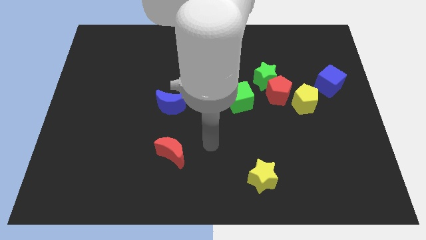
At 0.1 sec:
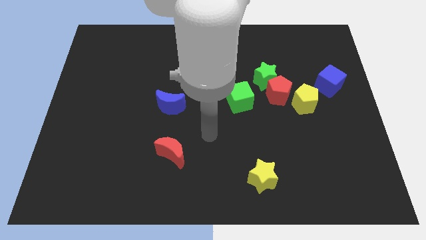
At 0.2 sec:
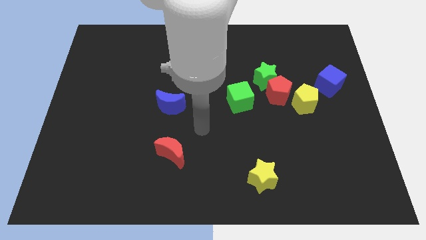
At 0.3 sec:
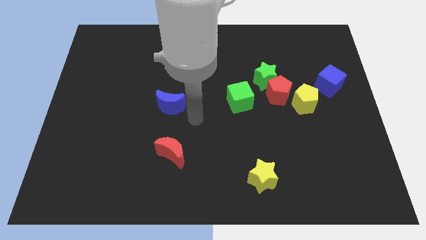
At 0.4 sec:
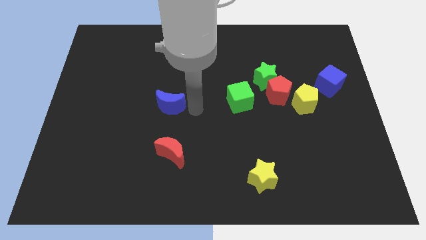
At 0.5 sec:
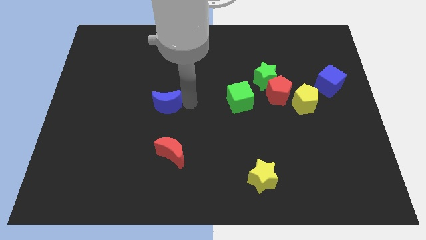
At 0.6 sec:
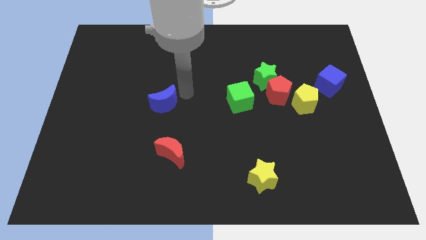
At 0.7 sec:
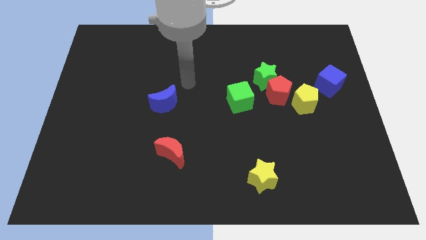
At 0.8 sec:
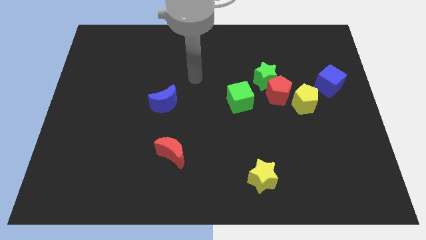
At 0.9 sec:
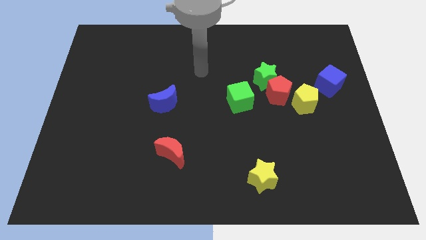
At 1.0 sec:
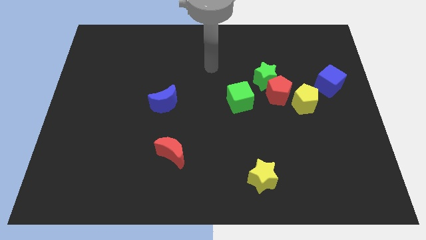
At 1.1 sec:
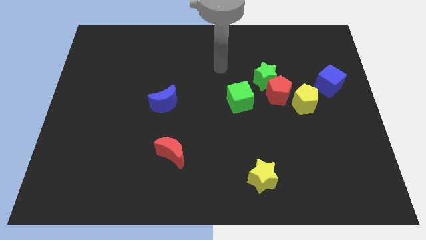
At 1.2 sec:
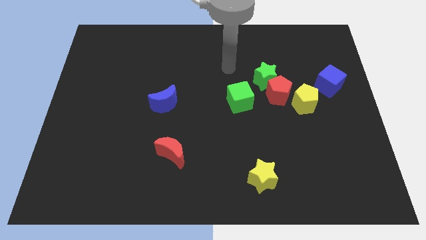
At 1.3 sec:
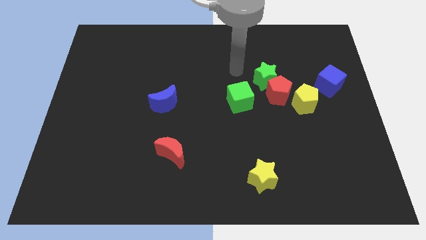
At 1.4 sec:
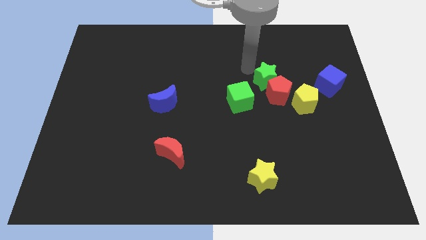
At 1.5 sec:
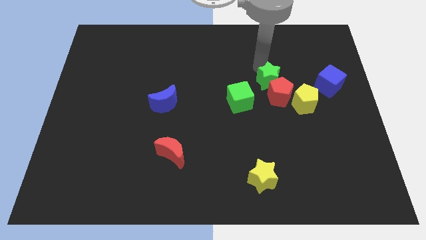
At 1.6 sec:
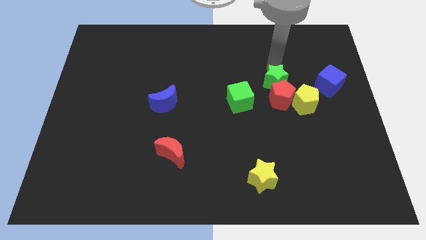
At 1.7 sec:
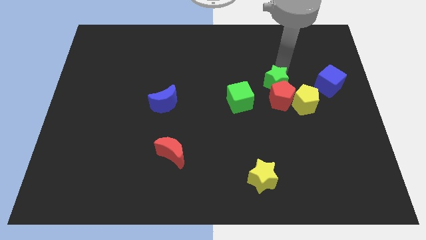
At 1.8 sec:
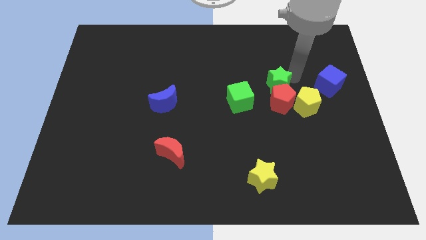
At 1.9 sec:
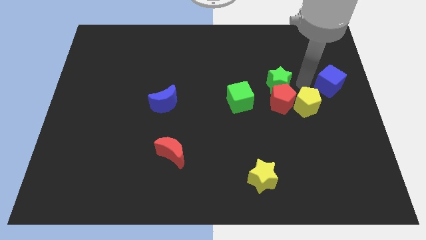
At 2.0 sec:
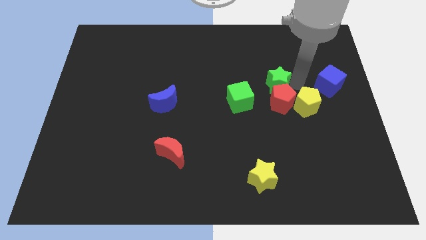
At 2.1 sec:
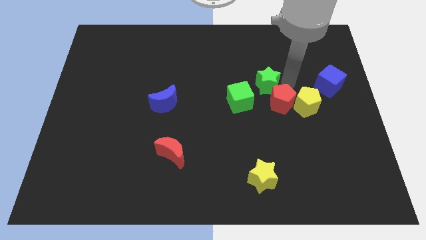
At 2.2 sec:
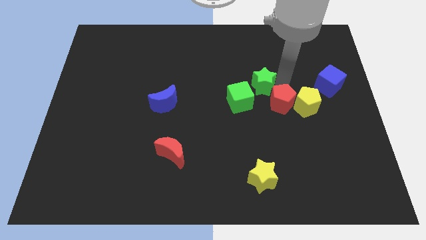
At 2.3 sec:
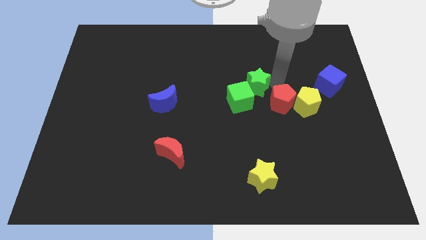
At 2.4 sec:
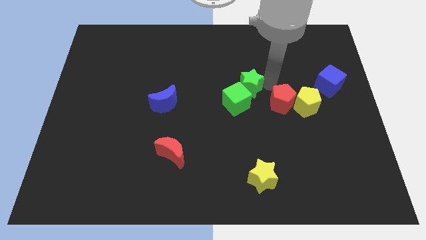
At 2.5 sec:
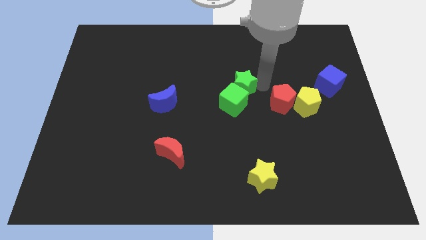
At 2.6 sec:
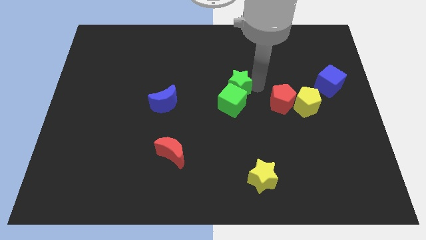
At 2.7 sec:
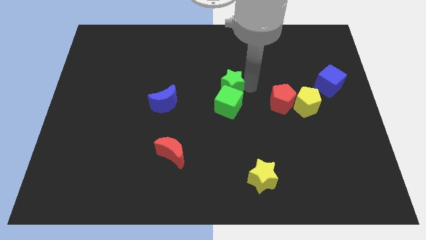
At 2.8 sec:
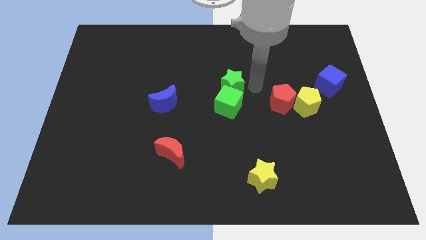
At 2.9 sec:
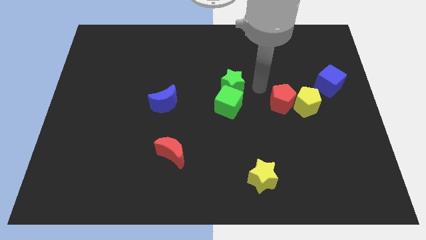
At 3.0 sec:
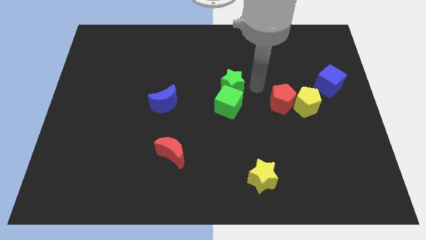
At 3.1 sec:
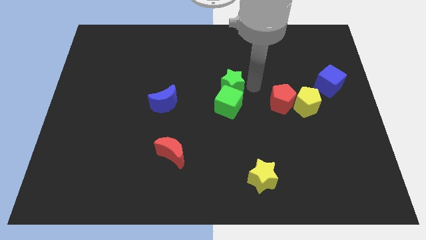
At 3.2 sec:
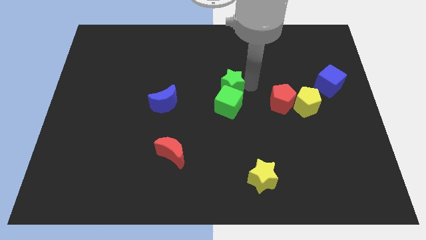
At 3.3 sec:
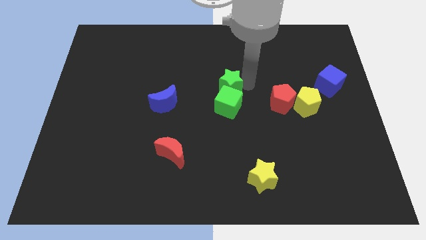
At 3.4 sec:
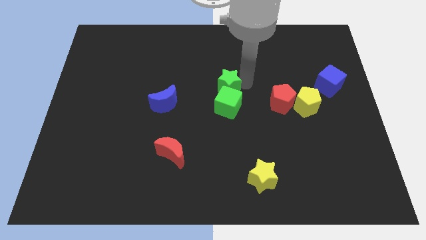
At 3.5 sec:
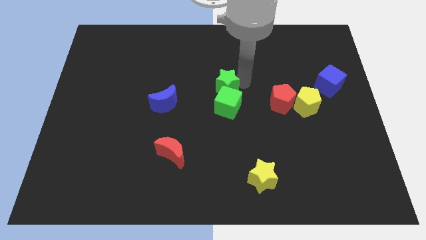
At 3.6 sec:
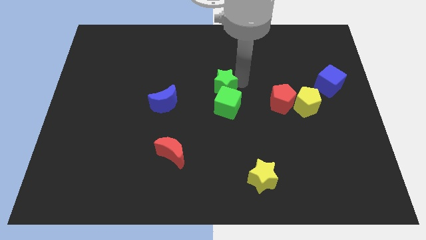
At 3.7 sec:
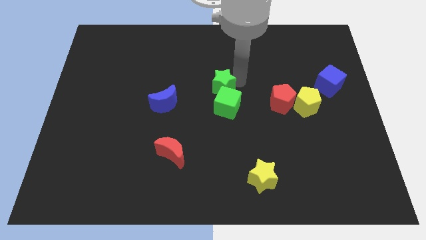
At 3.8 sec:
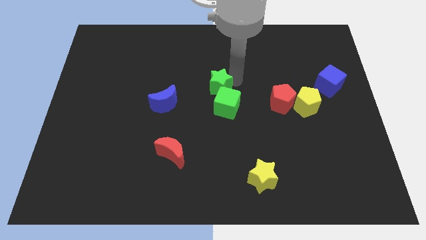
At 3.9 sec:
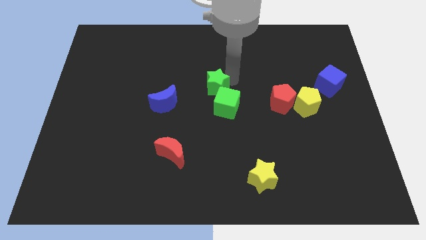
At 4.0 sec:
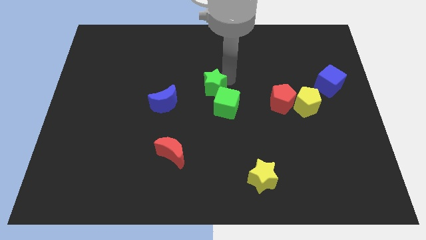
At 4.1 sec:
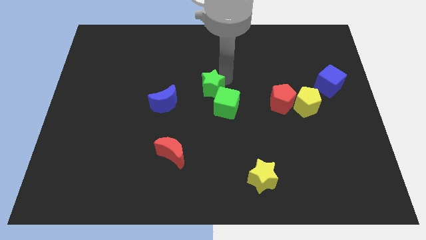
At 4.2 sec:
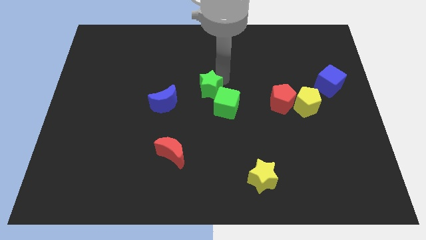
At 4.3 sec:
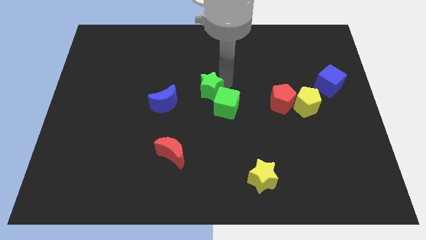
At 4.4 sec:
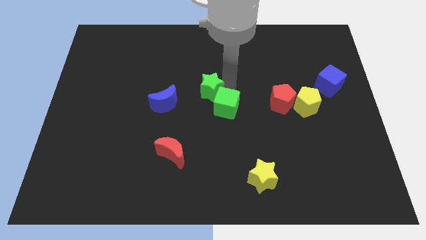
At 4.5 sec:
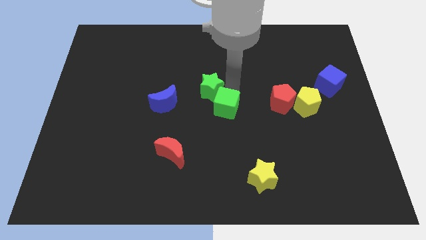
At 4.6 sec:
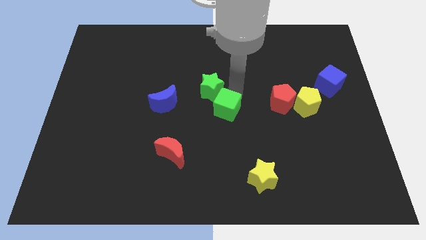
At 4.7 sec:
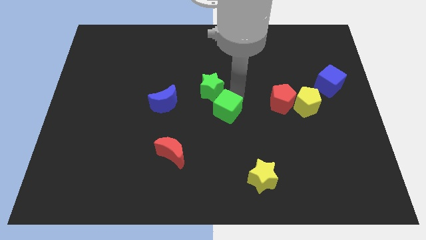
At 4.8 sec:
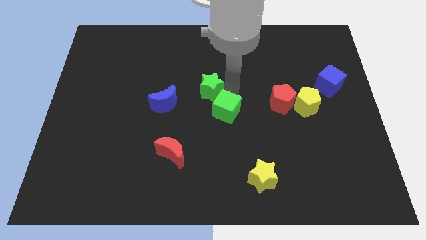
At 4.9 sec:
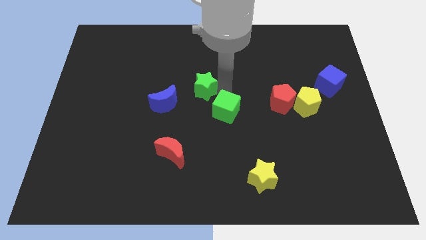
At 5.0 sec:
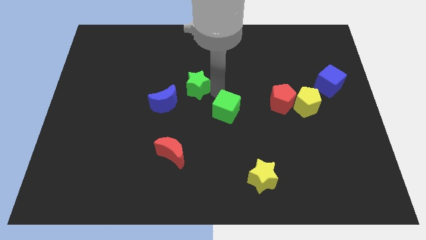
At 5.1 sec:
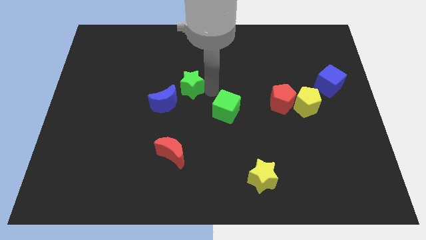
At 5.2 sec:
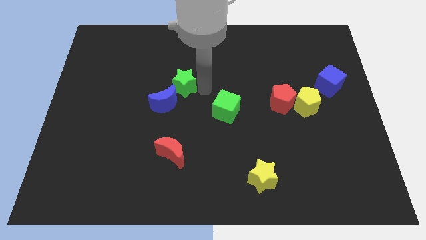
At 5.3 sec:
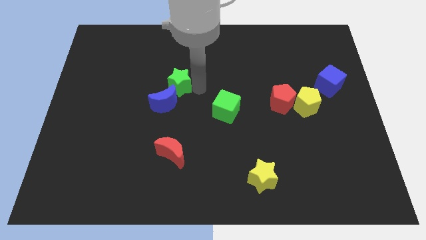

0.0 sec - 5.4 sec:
slide the green star to the left

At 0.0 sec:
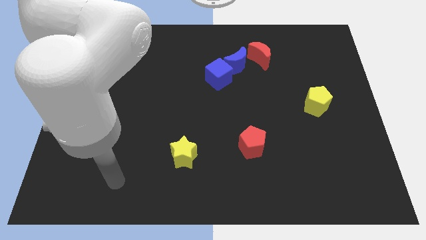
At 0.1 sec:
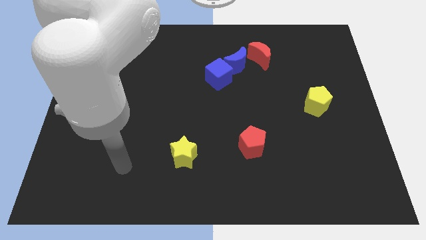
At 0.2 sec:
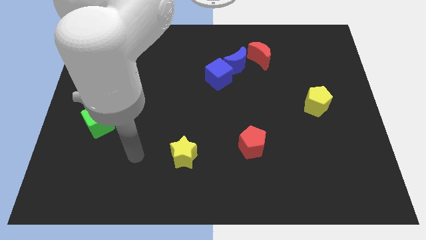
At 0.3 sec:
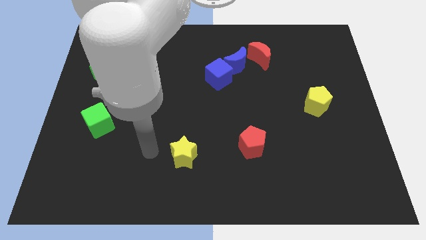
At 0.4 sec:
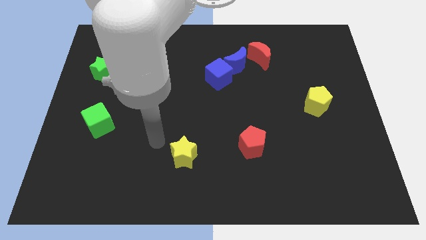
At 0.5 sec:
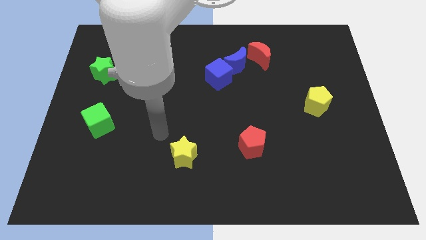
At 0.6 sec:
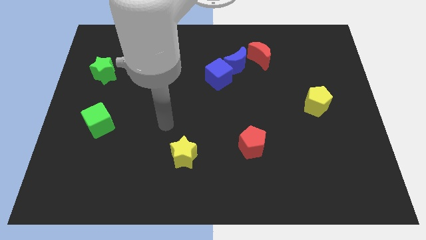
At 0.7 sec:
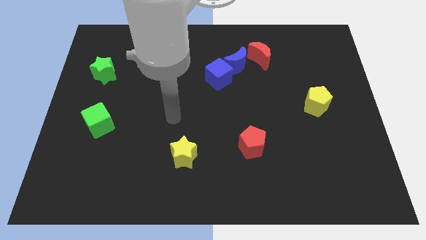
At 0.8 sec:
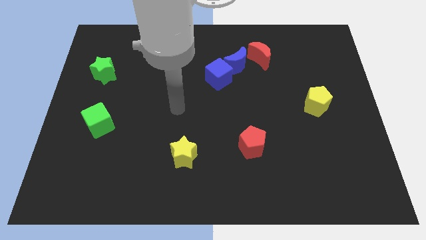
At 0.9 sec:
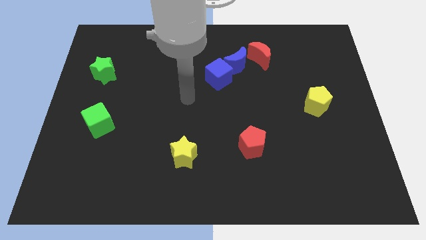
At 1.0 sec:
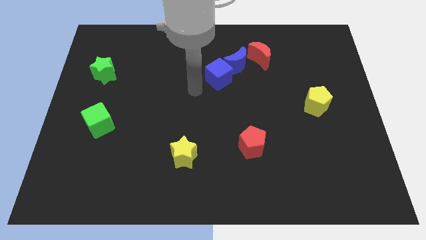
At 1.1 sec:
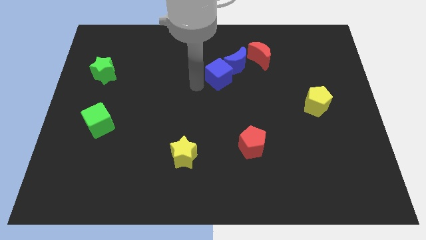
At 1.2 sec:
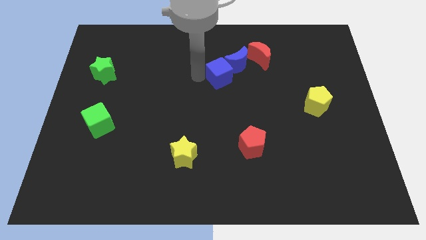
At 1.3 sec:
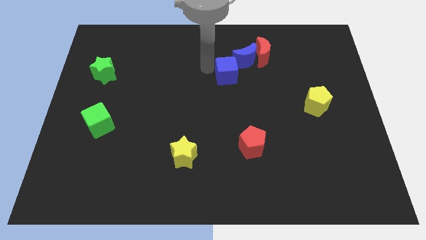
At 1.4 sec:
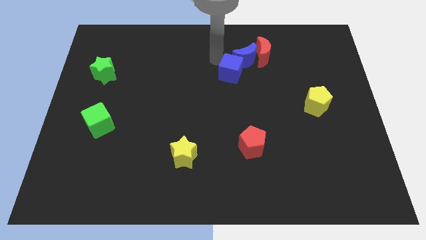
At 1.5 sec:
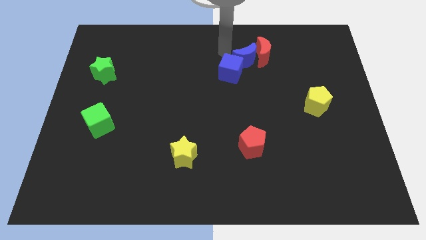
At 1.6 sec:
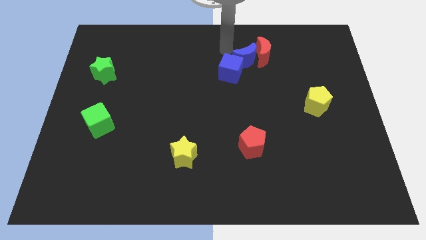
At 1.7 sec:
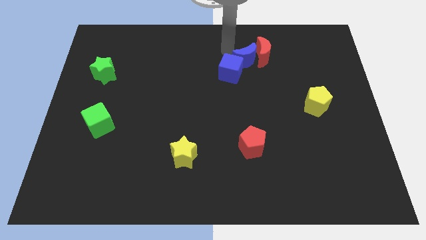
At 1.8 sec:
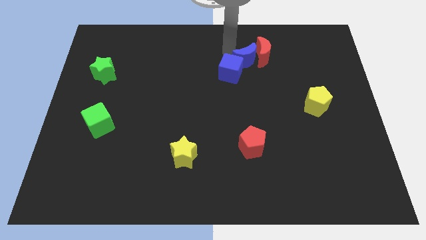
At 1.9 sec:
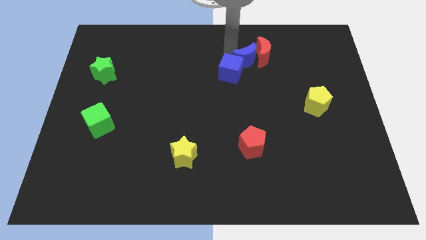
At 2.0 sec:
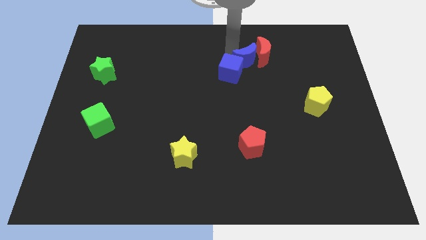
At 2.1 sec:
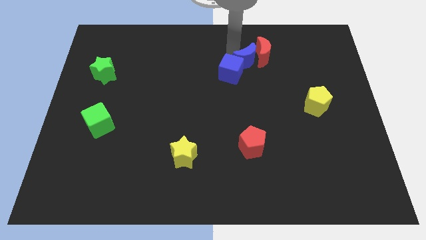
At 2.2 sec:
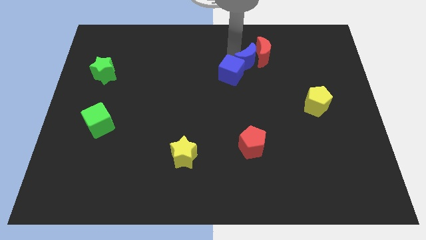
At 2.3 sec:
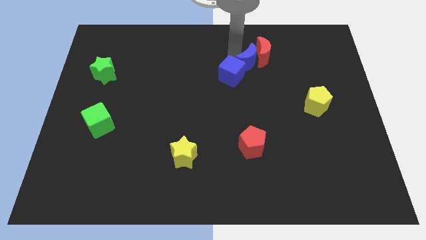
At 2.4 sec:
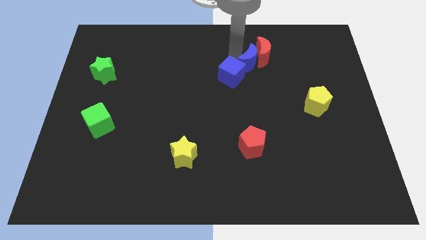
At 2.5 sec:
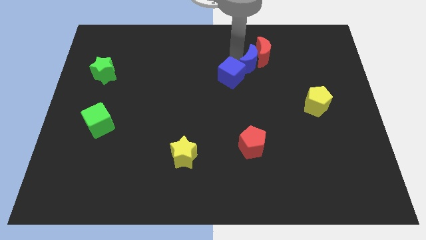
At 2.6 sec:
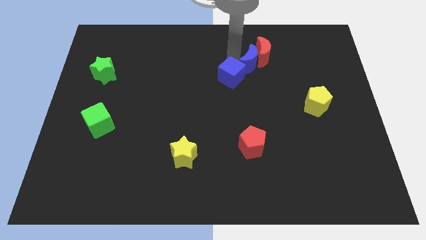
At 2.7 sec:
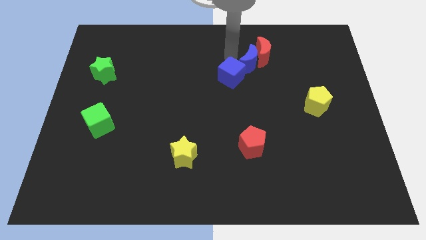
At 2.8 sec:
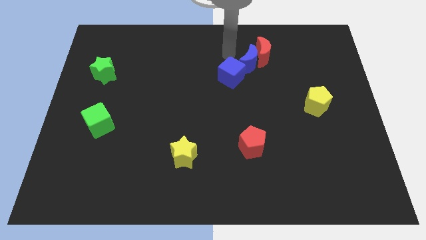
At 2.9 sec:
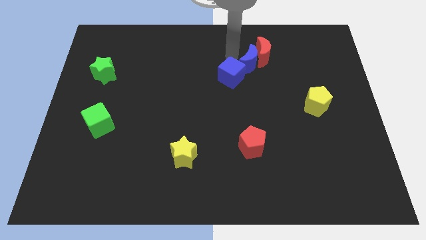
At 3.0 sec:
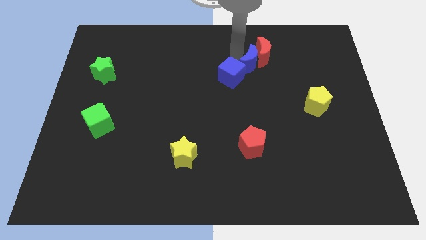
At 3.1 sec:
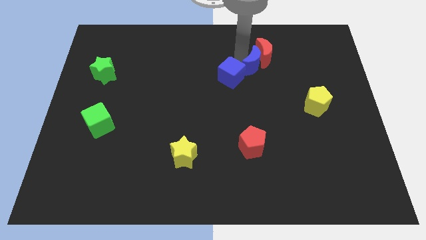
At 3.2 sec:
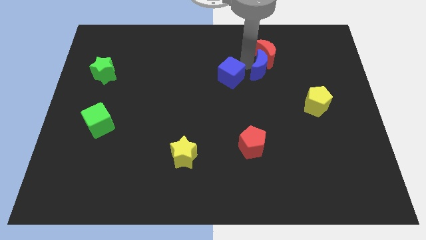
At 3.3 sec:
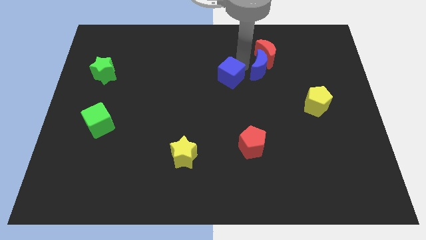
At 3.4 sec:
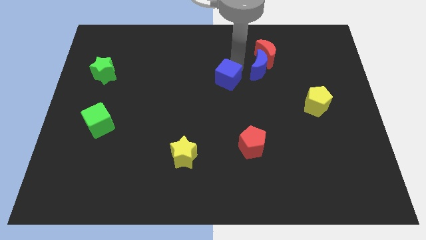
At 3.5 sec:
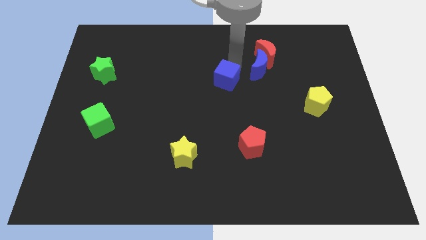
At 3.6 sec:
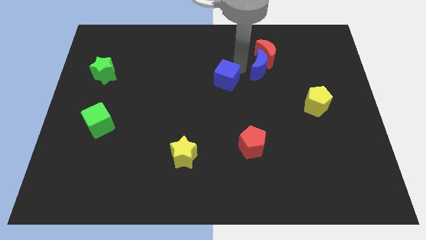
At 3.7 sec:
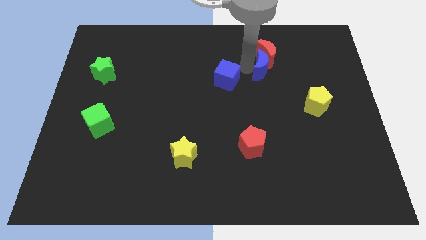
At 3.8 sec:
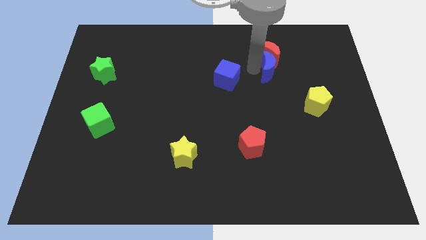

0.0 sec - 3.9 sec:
slightly push the blue moon to the right
